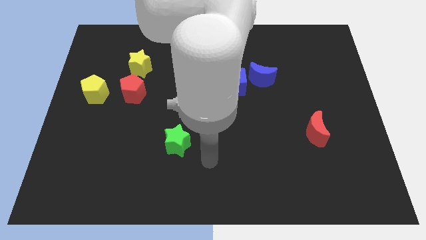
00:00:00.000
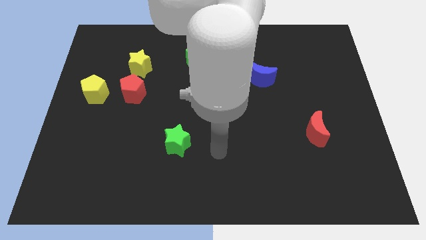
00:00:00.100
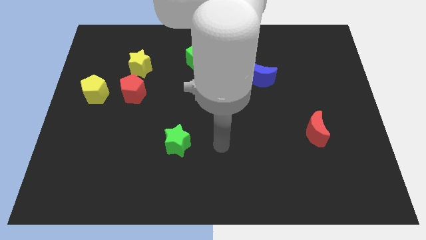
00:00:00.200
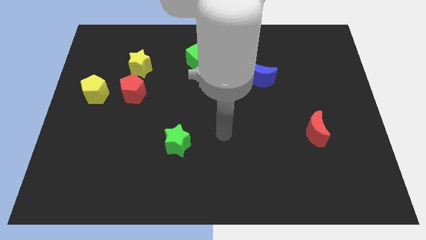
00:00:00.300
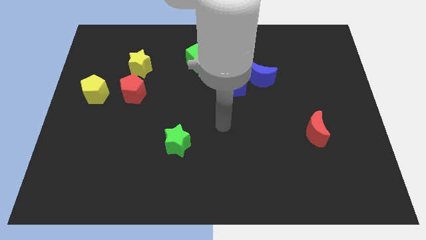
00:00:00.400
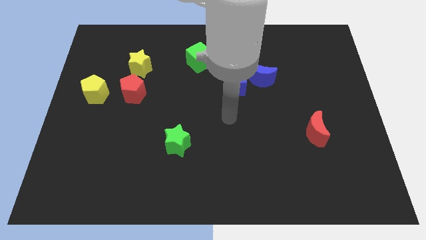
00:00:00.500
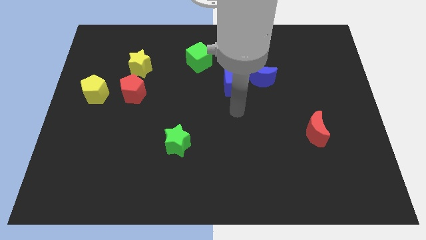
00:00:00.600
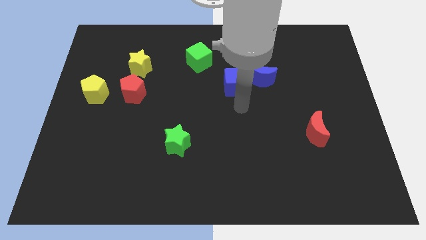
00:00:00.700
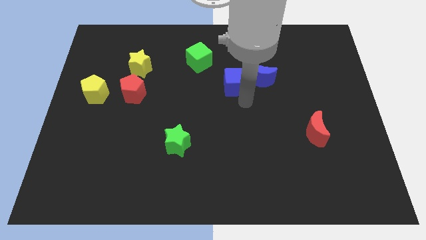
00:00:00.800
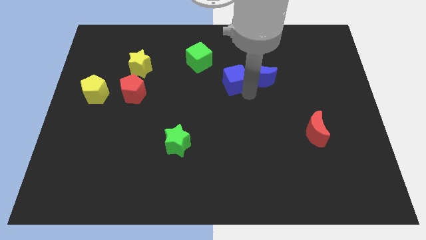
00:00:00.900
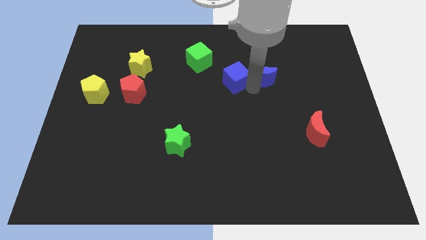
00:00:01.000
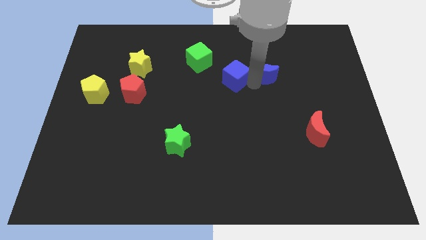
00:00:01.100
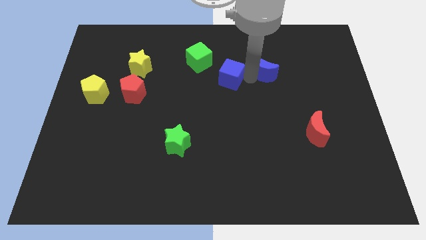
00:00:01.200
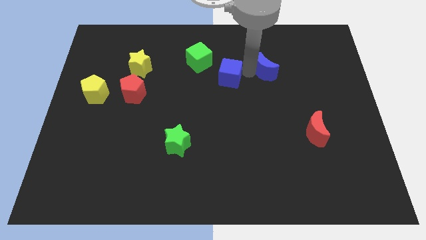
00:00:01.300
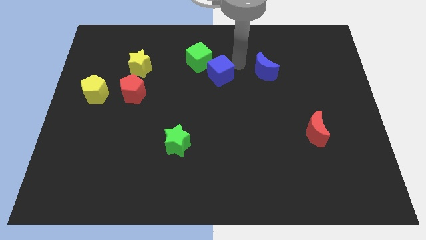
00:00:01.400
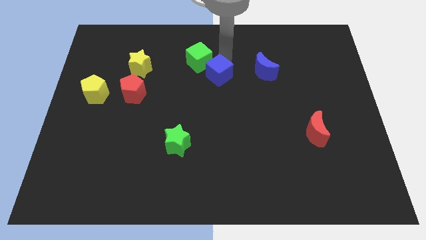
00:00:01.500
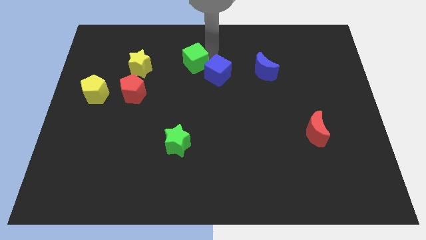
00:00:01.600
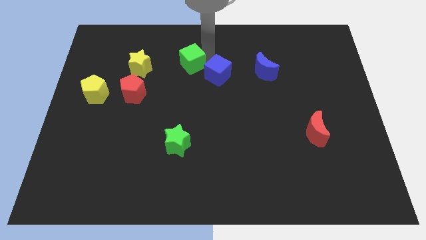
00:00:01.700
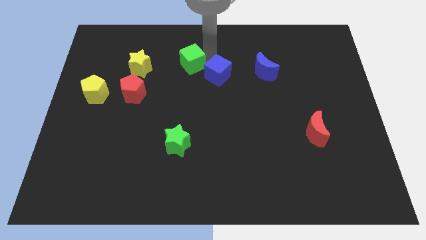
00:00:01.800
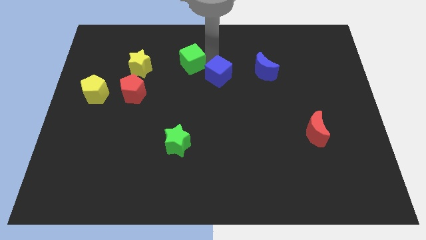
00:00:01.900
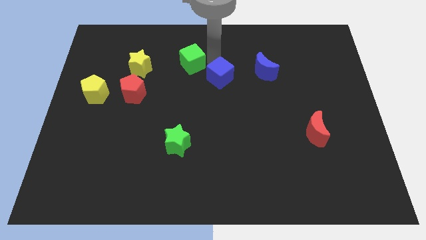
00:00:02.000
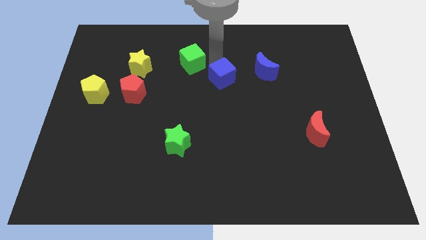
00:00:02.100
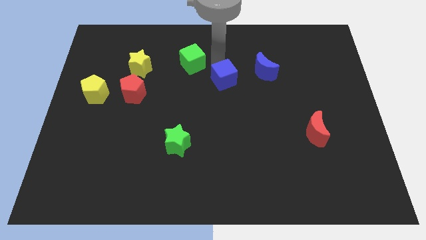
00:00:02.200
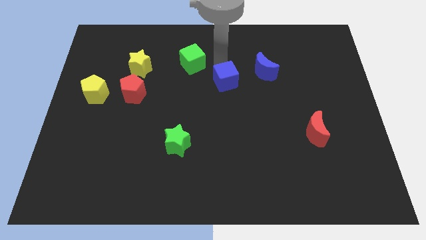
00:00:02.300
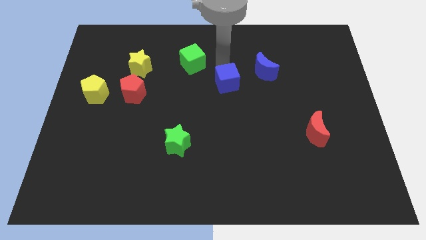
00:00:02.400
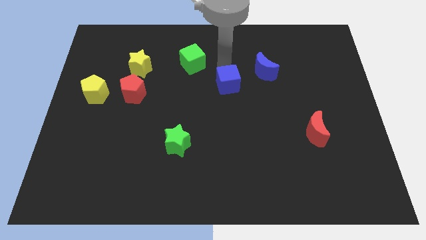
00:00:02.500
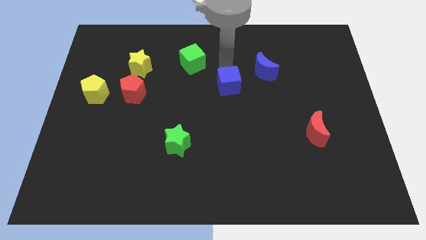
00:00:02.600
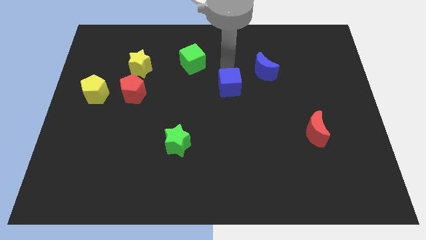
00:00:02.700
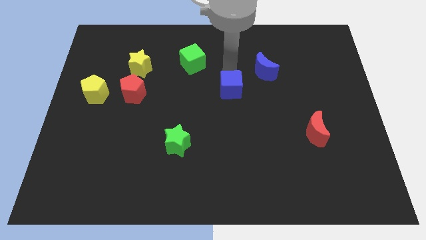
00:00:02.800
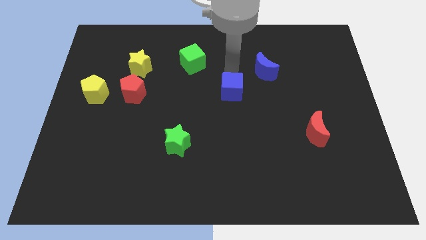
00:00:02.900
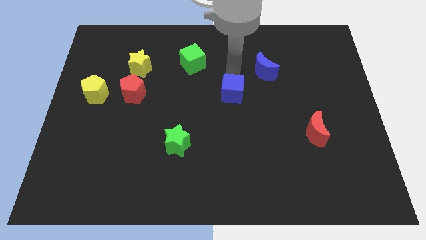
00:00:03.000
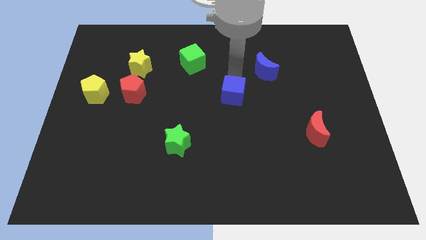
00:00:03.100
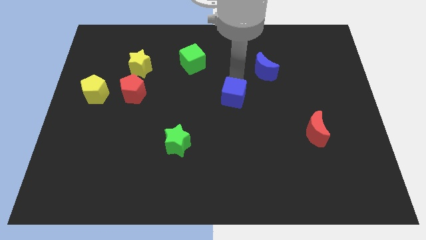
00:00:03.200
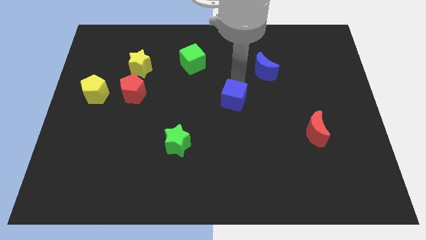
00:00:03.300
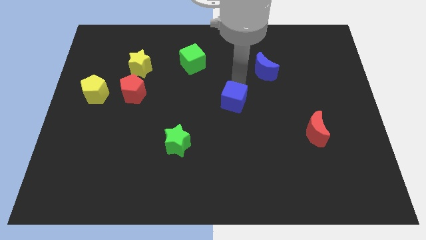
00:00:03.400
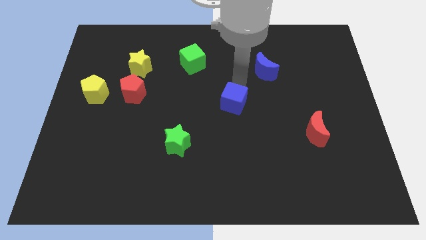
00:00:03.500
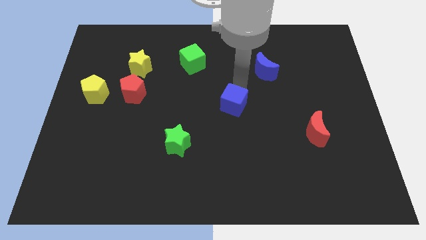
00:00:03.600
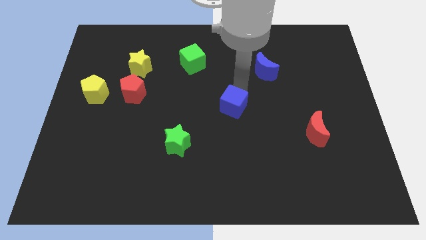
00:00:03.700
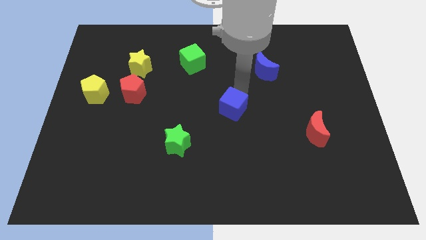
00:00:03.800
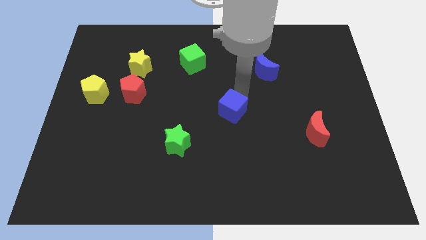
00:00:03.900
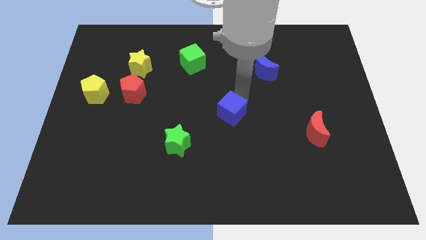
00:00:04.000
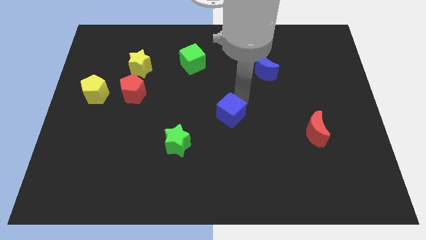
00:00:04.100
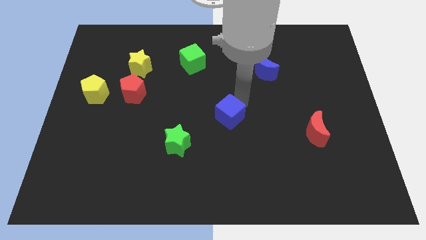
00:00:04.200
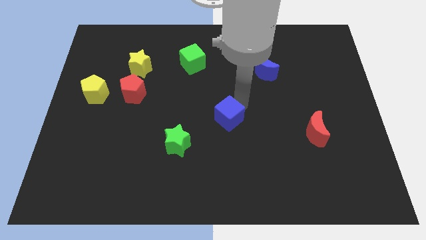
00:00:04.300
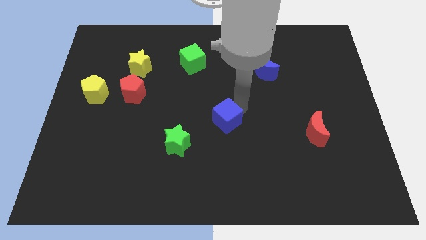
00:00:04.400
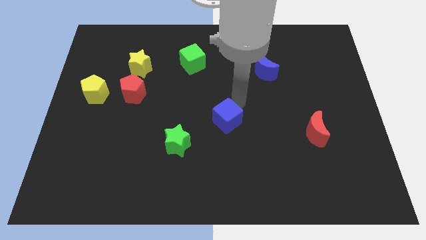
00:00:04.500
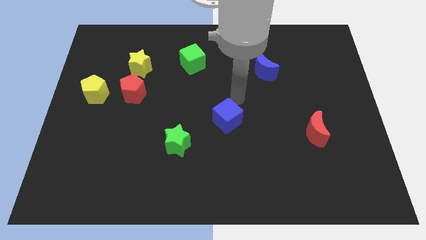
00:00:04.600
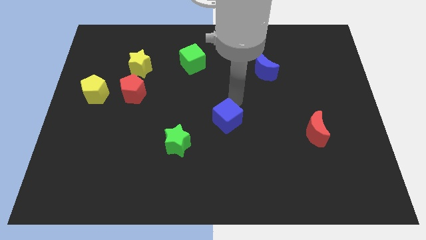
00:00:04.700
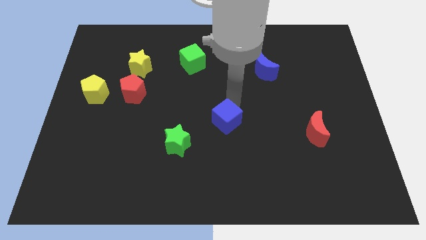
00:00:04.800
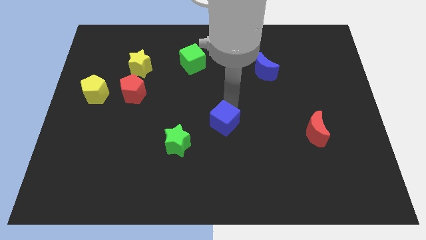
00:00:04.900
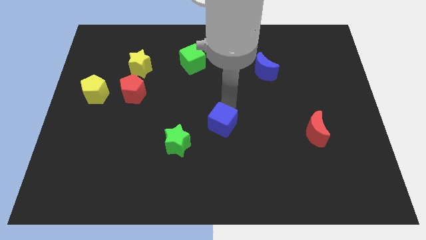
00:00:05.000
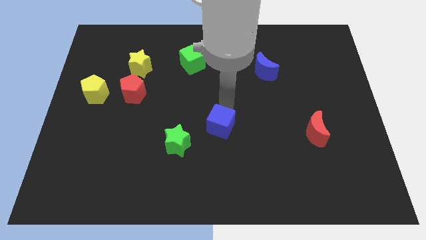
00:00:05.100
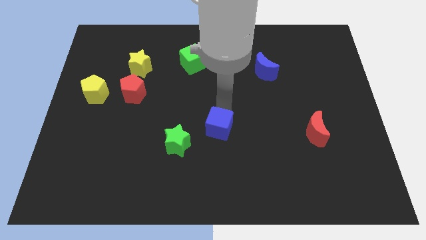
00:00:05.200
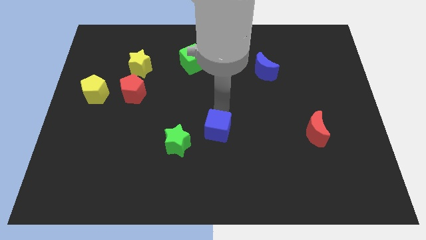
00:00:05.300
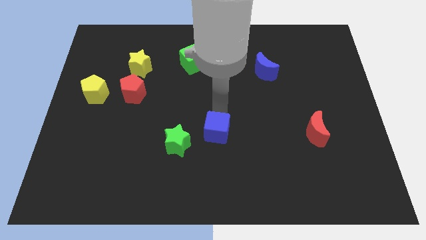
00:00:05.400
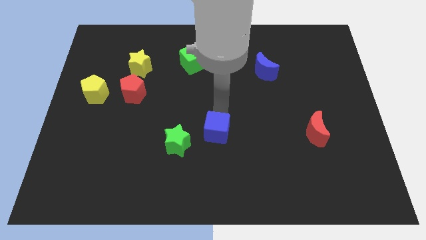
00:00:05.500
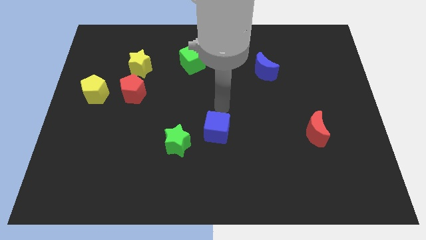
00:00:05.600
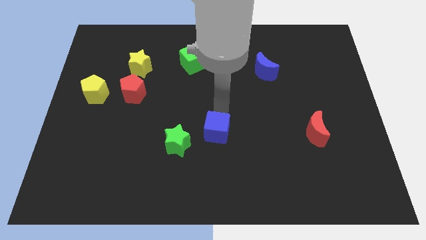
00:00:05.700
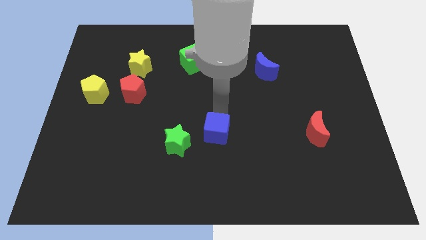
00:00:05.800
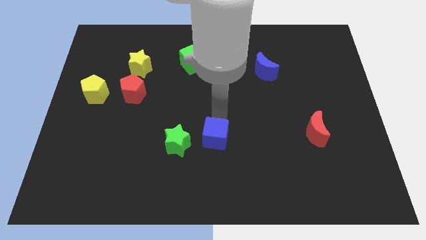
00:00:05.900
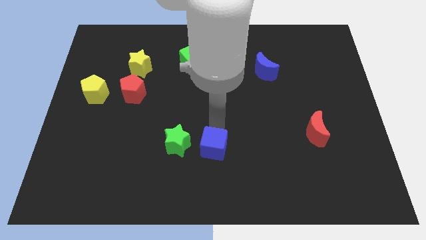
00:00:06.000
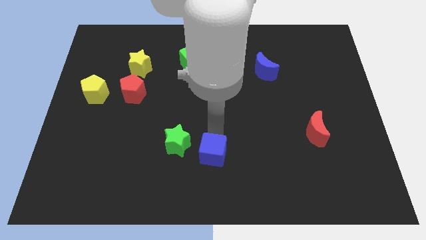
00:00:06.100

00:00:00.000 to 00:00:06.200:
slide the blue cube to the bottom side

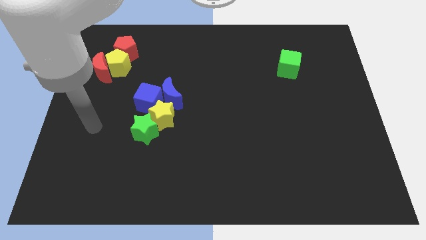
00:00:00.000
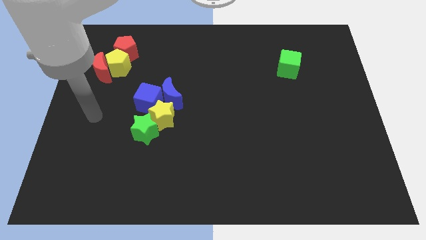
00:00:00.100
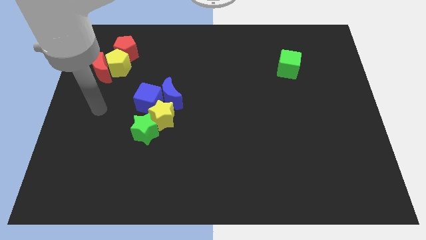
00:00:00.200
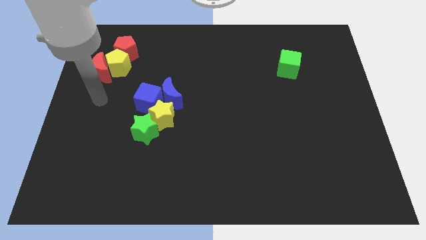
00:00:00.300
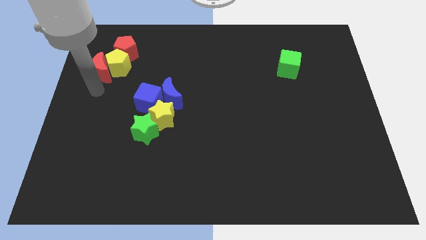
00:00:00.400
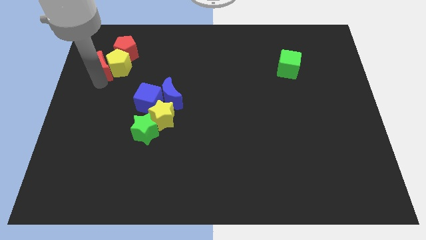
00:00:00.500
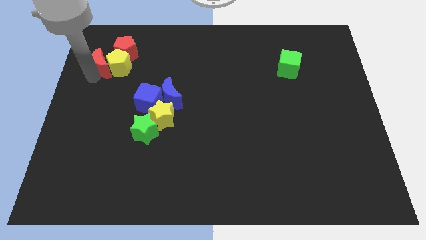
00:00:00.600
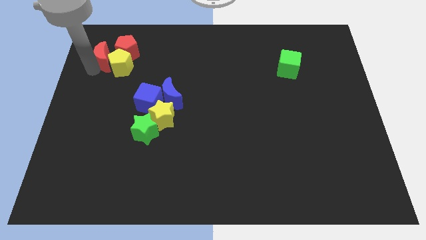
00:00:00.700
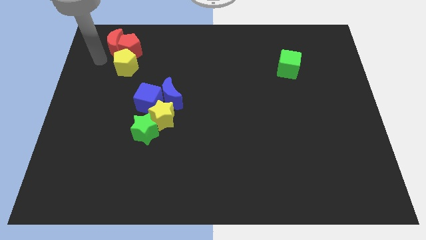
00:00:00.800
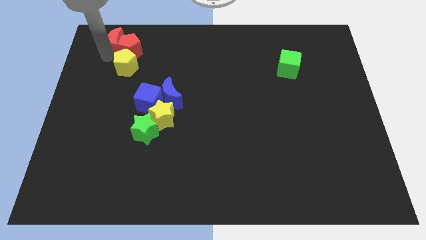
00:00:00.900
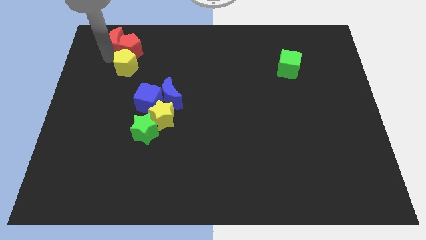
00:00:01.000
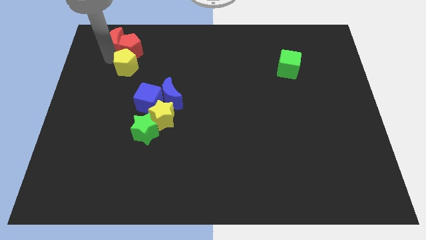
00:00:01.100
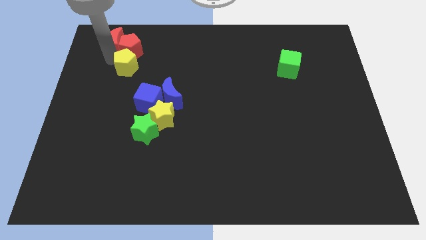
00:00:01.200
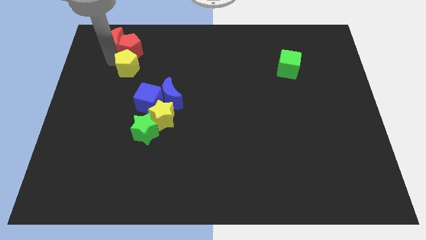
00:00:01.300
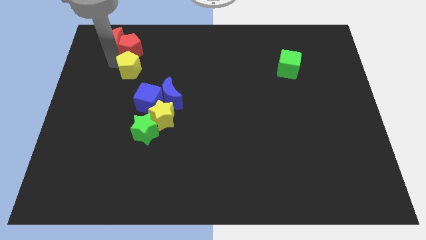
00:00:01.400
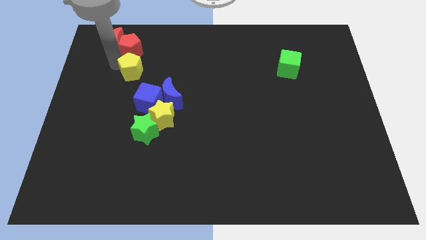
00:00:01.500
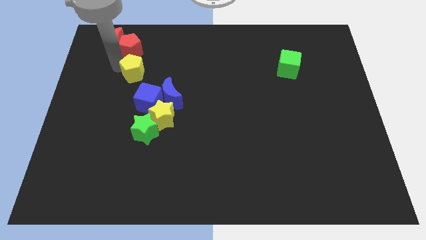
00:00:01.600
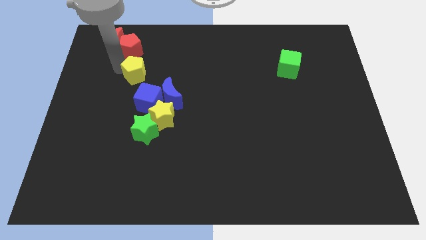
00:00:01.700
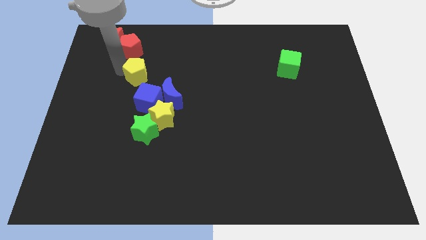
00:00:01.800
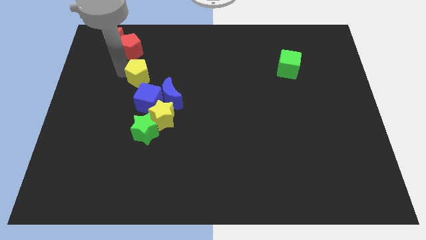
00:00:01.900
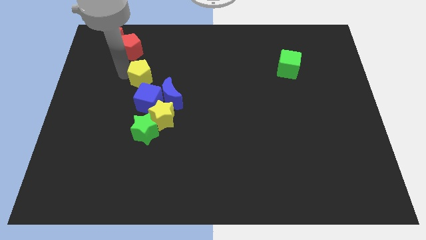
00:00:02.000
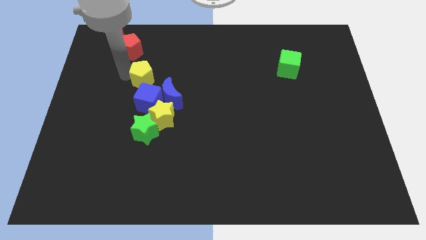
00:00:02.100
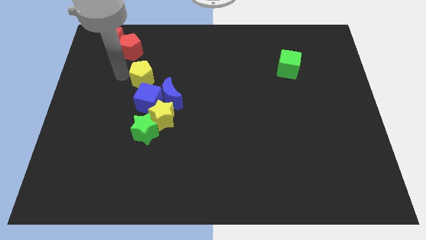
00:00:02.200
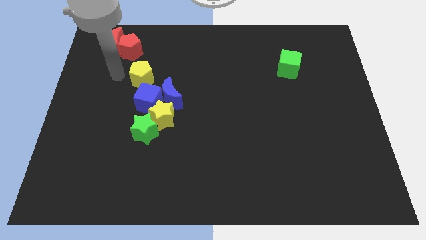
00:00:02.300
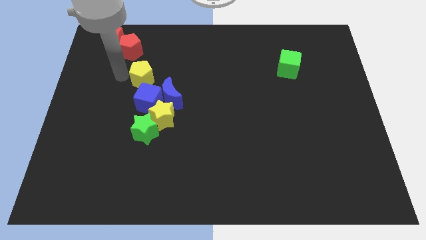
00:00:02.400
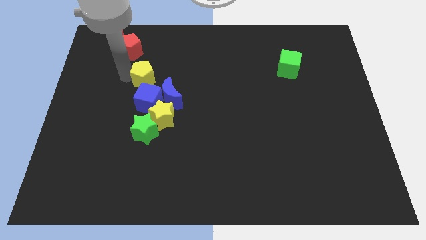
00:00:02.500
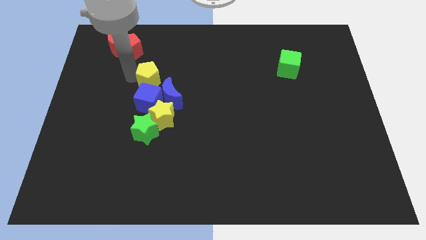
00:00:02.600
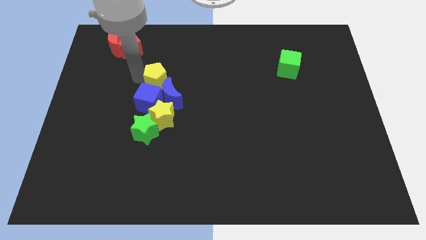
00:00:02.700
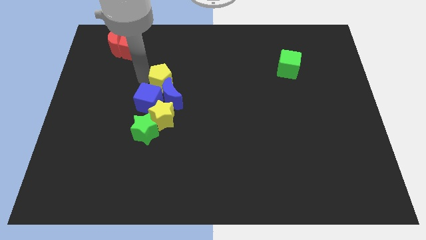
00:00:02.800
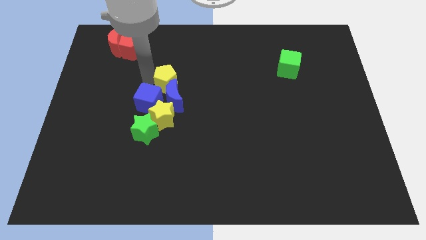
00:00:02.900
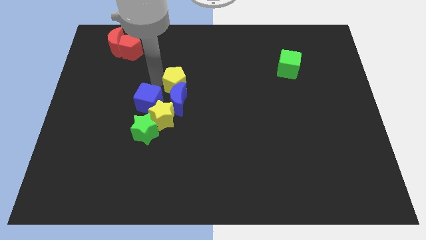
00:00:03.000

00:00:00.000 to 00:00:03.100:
put the yellow pentagon to the center of the board
